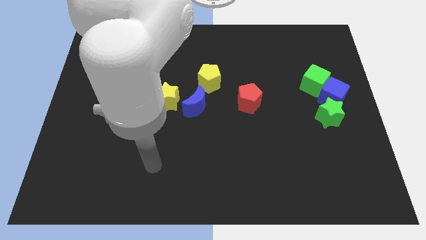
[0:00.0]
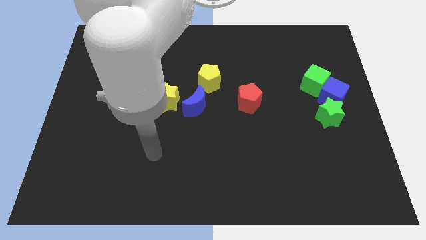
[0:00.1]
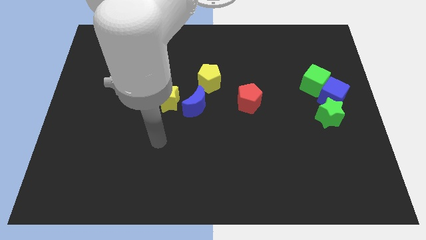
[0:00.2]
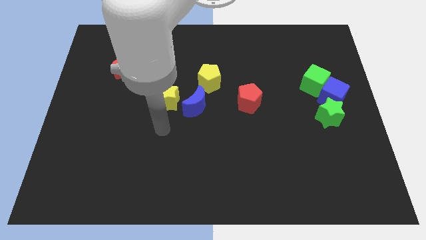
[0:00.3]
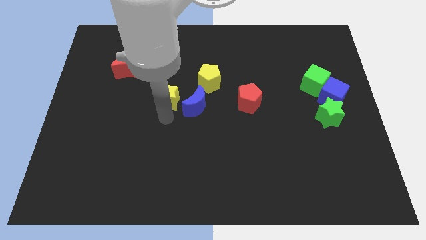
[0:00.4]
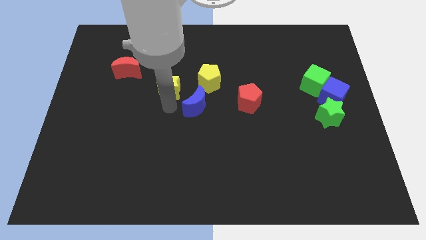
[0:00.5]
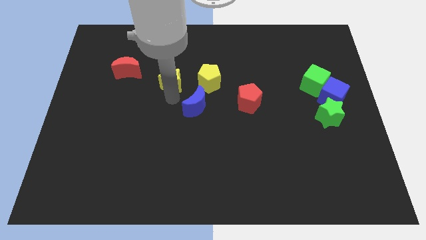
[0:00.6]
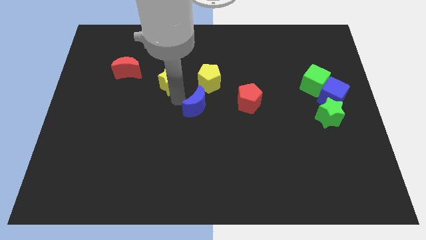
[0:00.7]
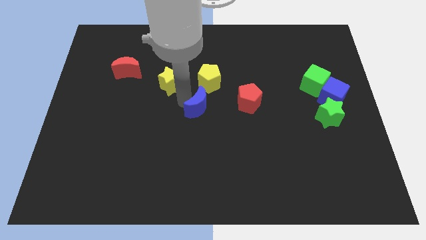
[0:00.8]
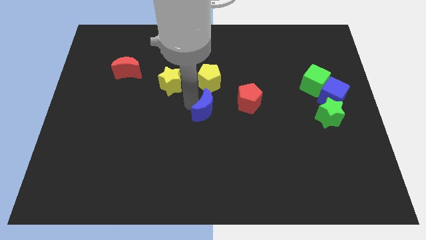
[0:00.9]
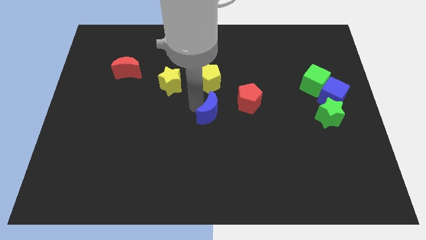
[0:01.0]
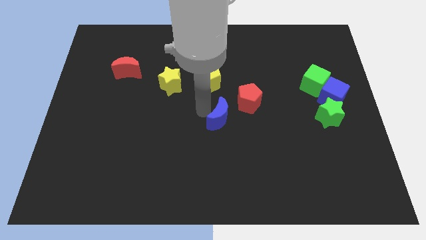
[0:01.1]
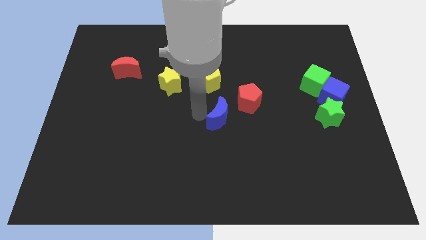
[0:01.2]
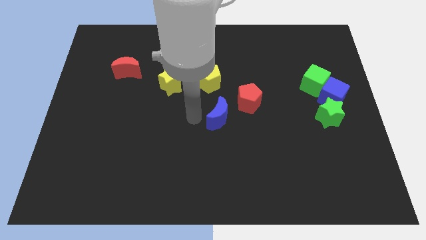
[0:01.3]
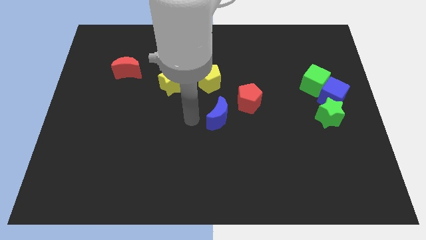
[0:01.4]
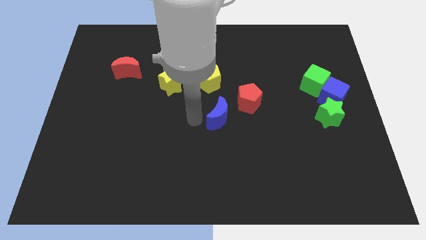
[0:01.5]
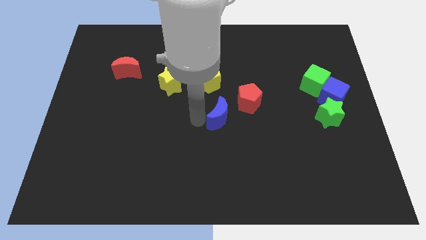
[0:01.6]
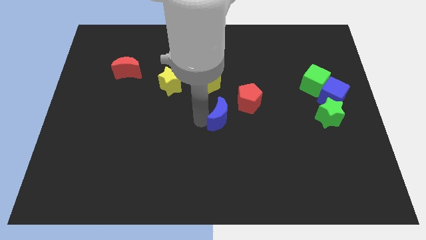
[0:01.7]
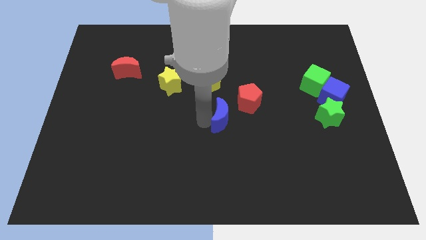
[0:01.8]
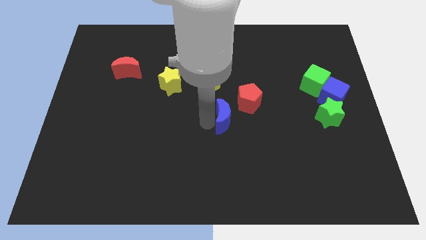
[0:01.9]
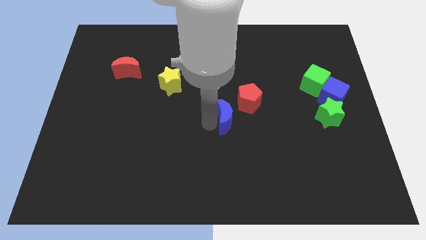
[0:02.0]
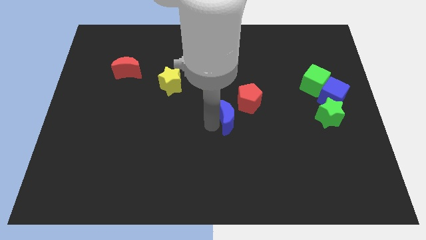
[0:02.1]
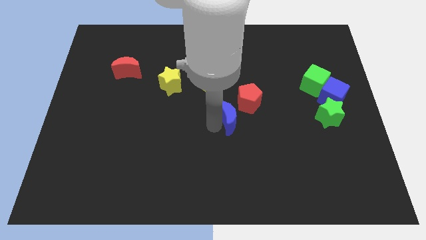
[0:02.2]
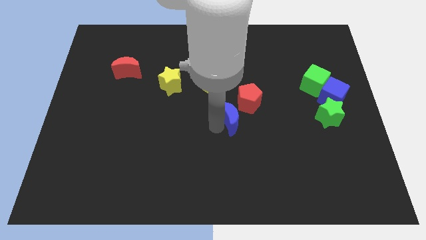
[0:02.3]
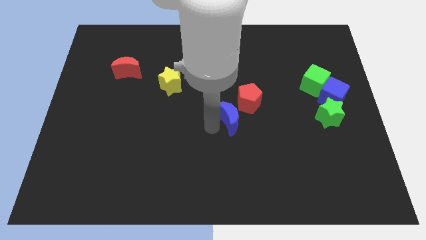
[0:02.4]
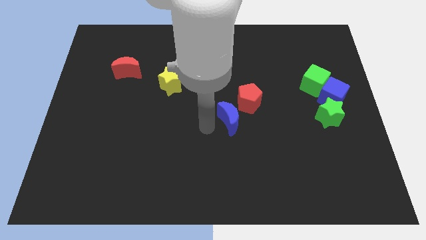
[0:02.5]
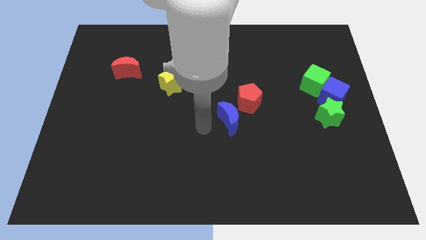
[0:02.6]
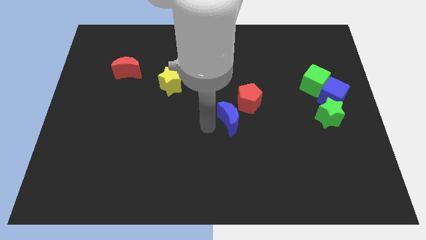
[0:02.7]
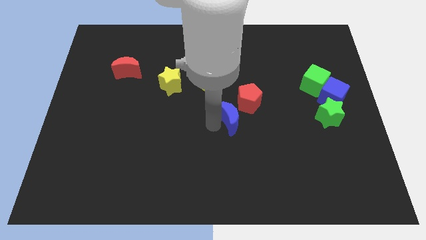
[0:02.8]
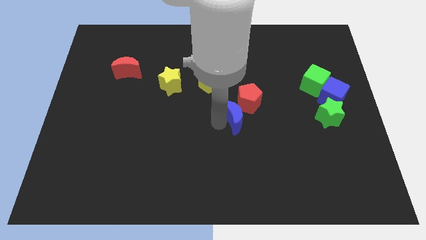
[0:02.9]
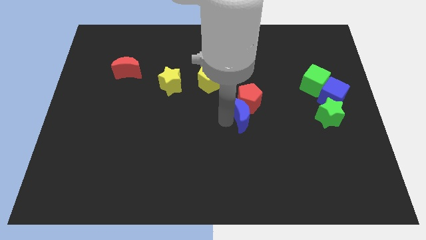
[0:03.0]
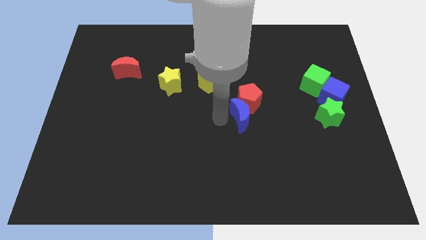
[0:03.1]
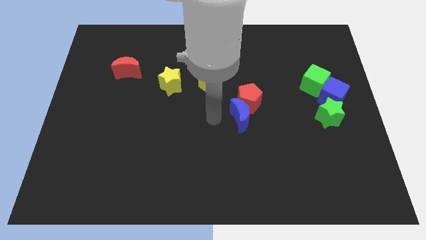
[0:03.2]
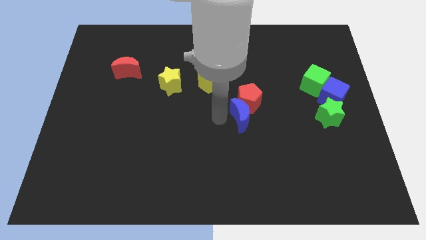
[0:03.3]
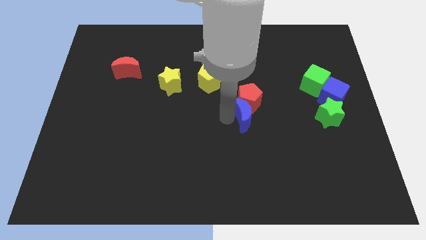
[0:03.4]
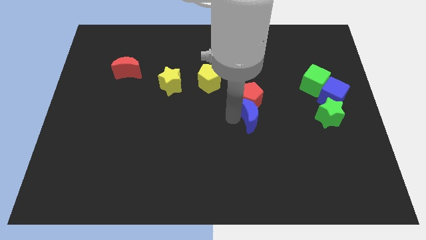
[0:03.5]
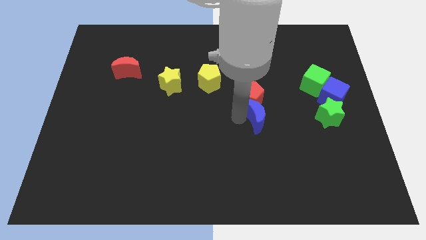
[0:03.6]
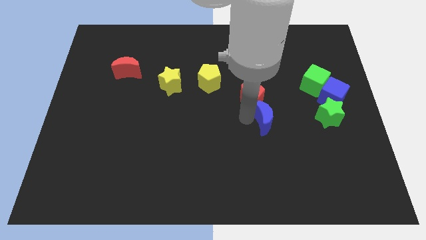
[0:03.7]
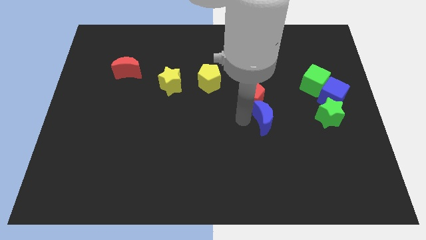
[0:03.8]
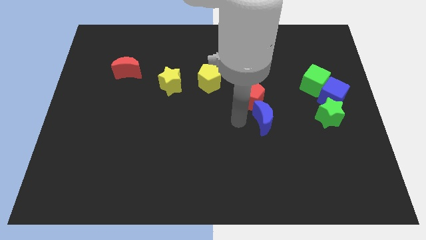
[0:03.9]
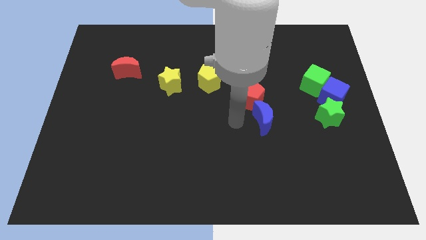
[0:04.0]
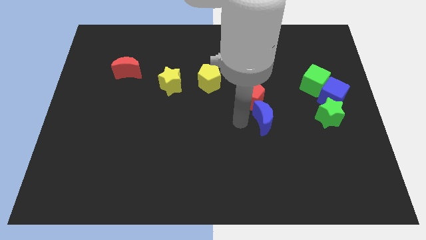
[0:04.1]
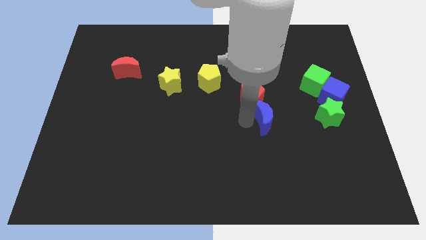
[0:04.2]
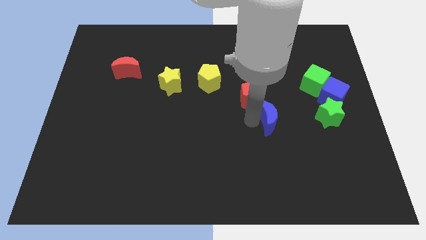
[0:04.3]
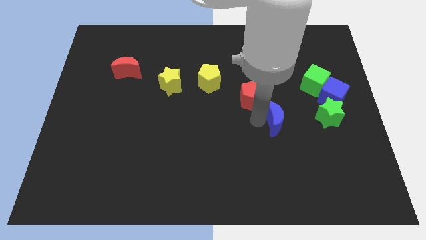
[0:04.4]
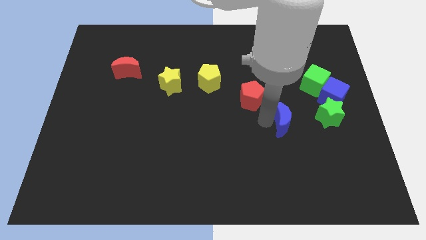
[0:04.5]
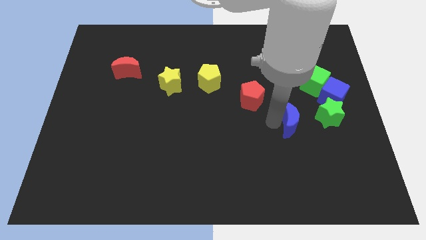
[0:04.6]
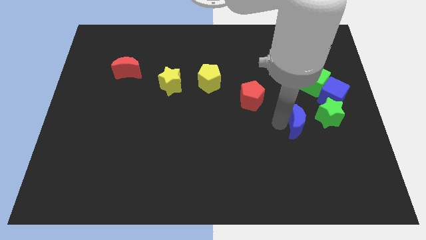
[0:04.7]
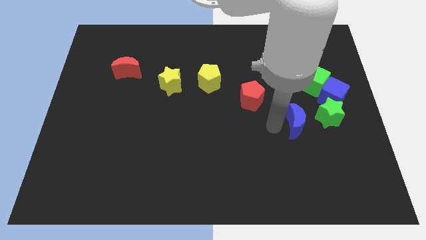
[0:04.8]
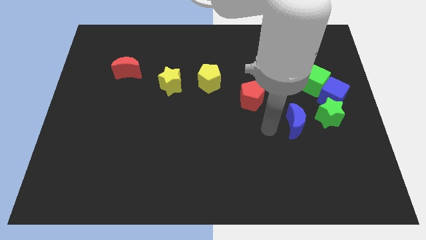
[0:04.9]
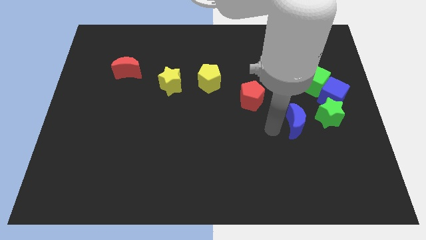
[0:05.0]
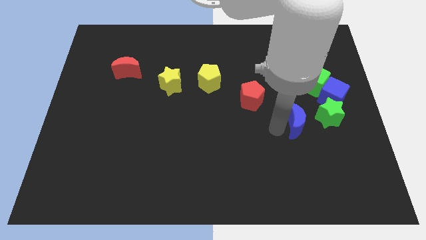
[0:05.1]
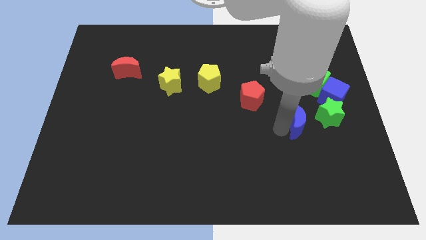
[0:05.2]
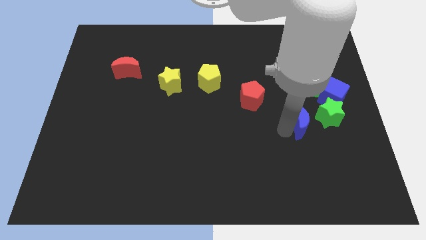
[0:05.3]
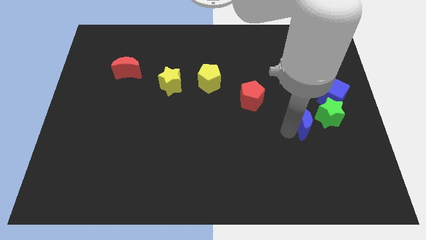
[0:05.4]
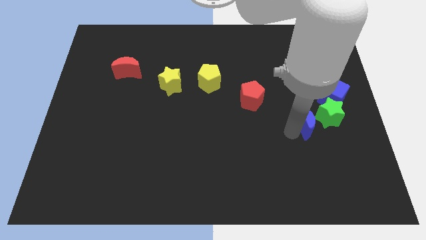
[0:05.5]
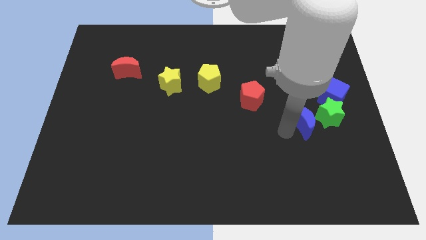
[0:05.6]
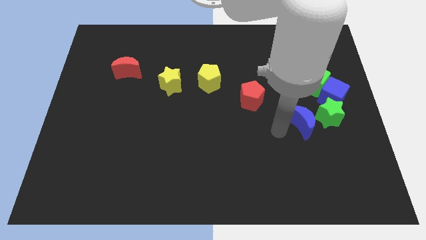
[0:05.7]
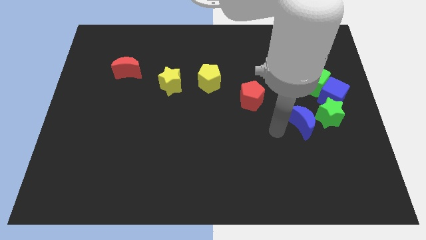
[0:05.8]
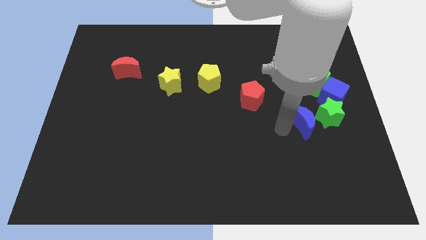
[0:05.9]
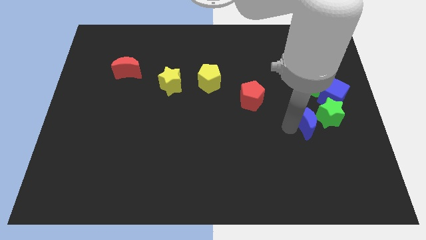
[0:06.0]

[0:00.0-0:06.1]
push the blue moon to the green star

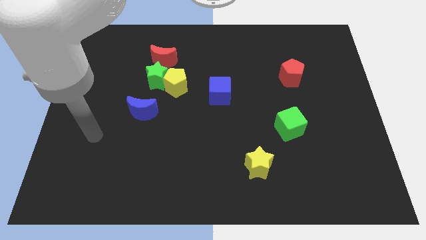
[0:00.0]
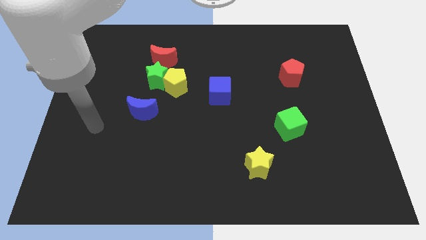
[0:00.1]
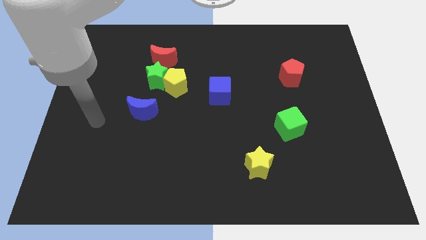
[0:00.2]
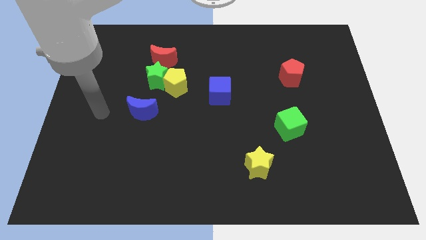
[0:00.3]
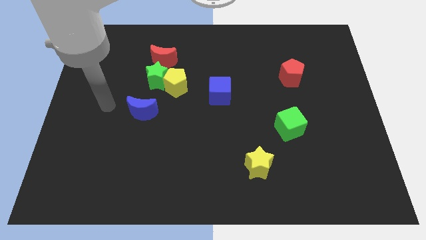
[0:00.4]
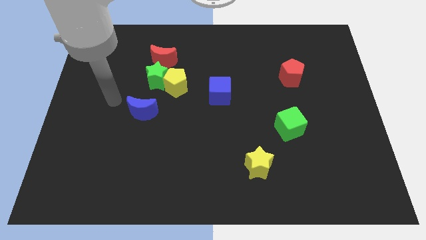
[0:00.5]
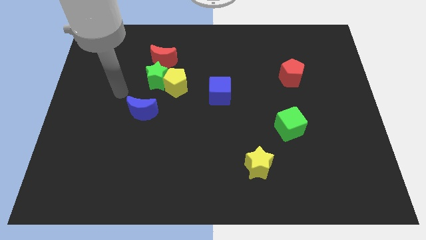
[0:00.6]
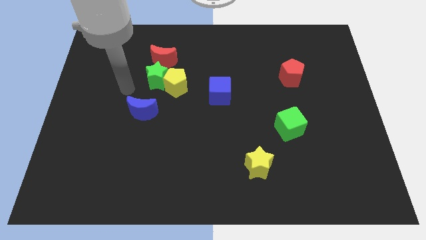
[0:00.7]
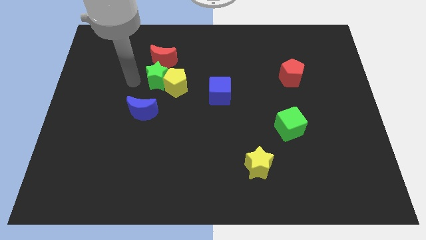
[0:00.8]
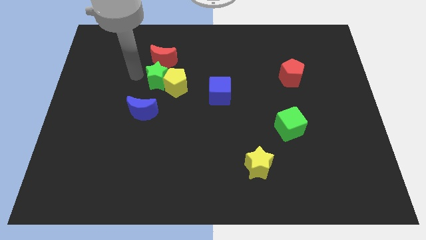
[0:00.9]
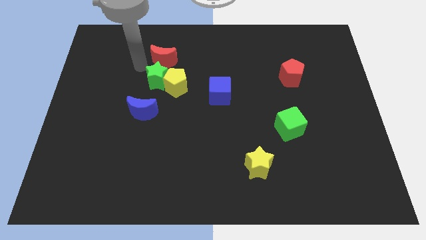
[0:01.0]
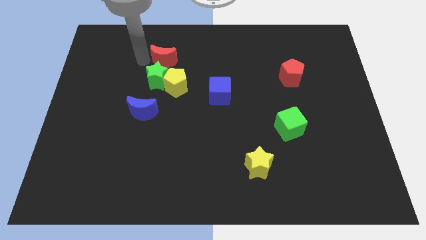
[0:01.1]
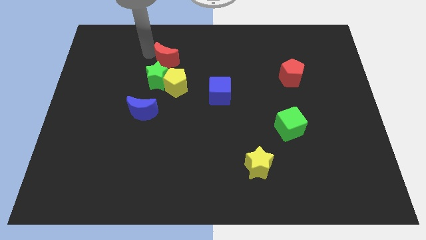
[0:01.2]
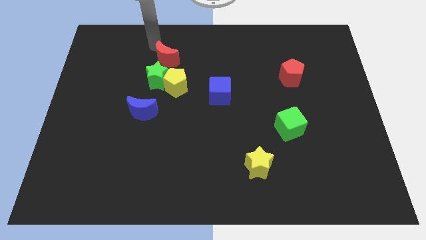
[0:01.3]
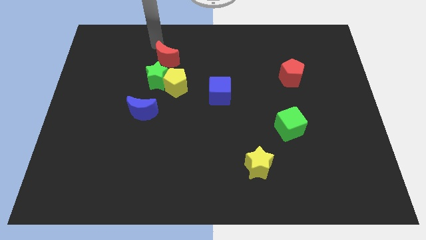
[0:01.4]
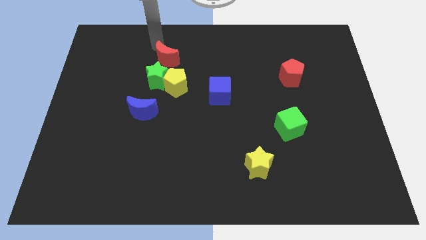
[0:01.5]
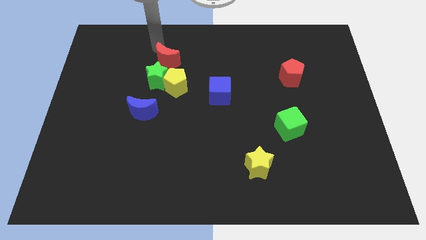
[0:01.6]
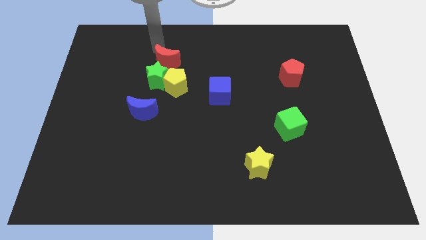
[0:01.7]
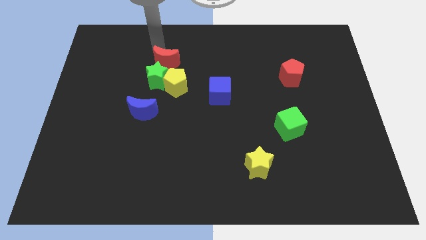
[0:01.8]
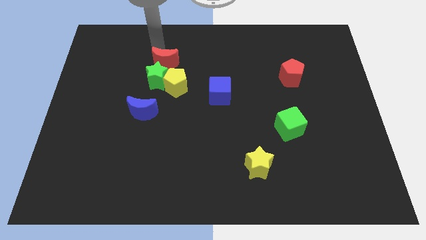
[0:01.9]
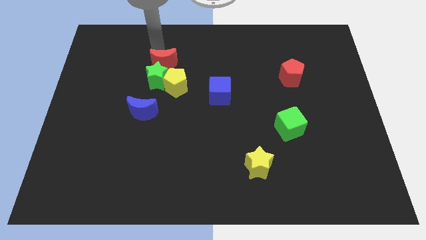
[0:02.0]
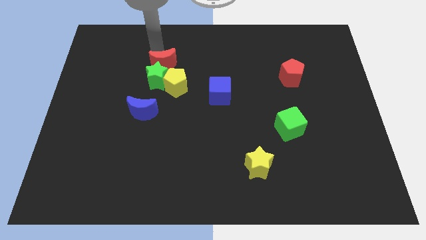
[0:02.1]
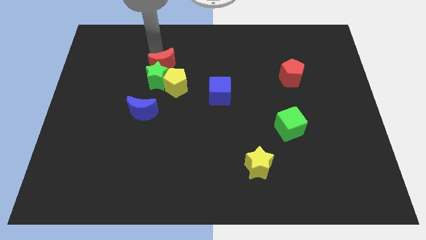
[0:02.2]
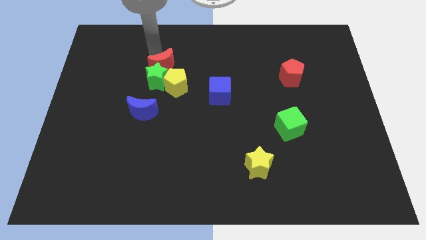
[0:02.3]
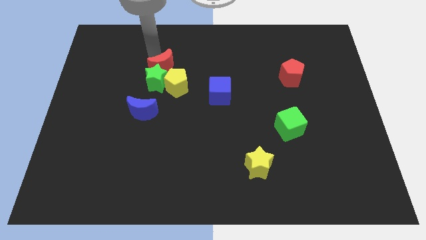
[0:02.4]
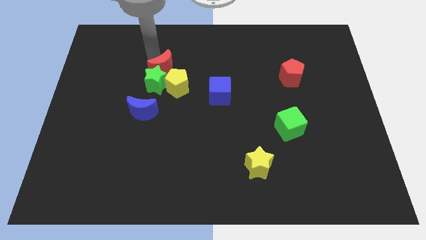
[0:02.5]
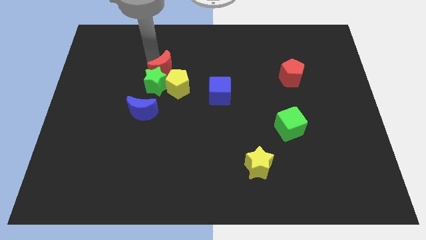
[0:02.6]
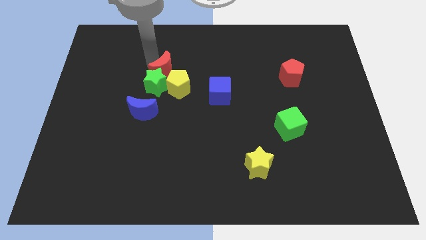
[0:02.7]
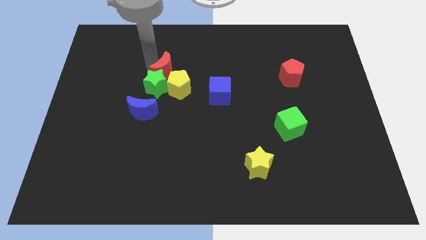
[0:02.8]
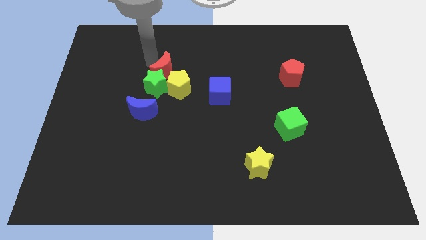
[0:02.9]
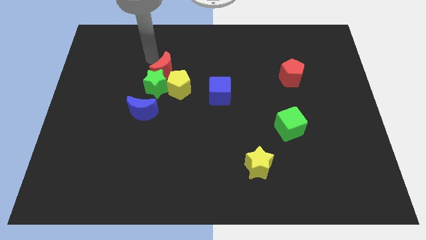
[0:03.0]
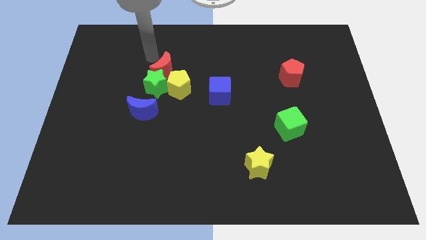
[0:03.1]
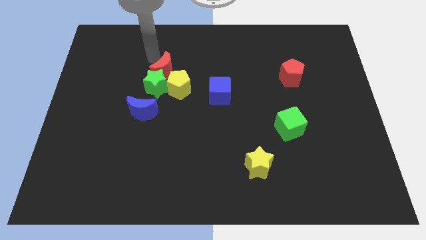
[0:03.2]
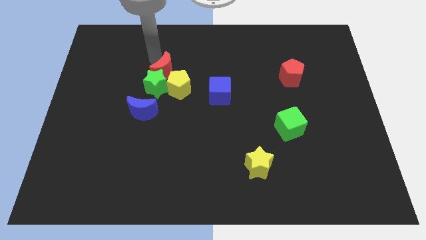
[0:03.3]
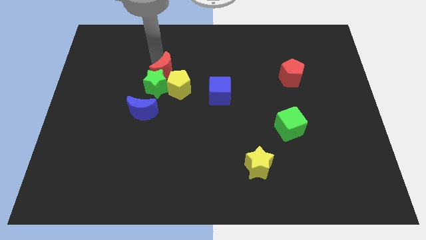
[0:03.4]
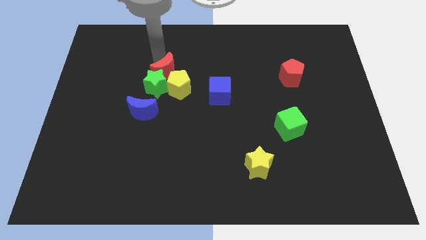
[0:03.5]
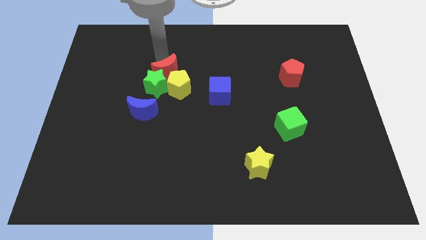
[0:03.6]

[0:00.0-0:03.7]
move the red moon next to the yellow pentagon
